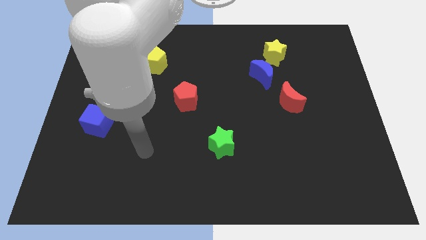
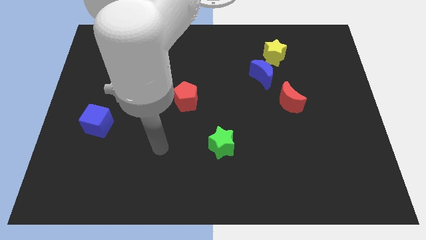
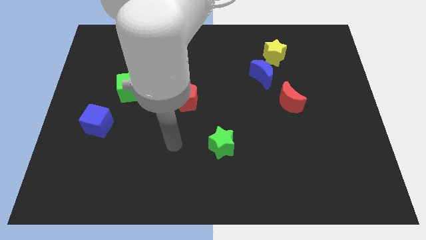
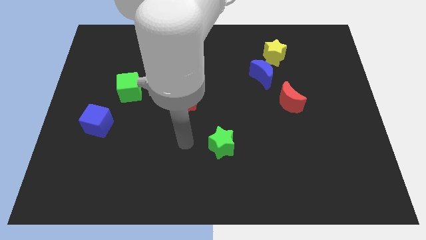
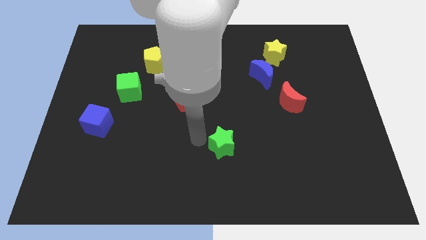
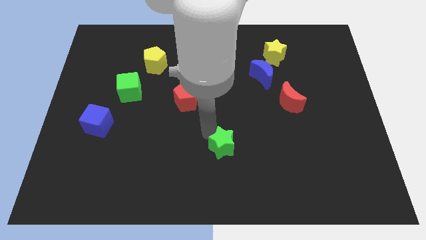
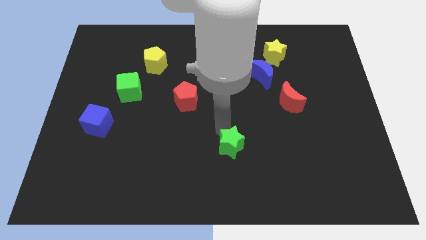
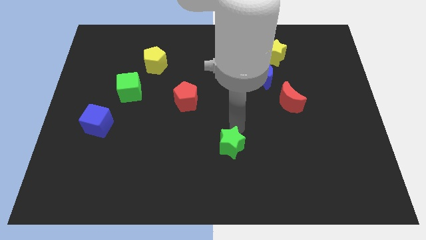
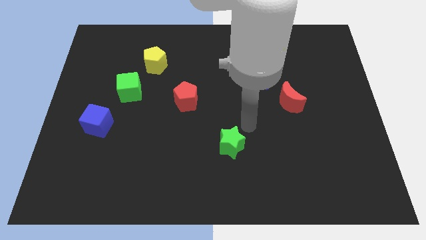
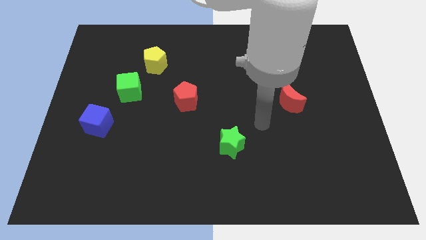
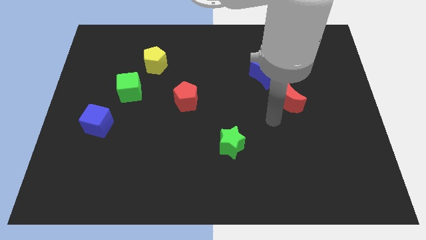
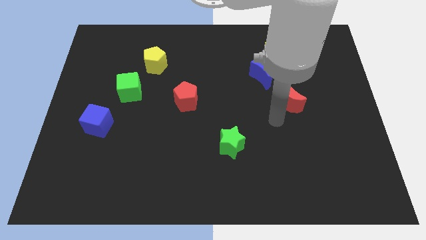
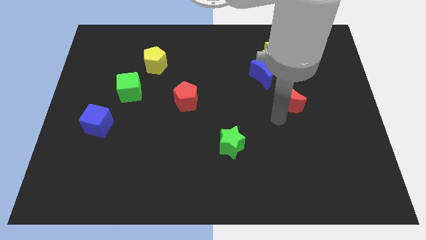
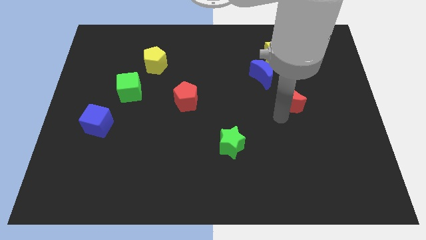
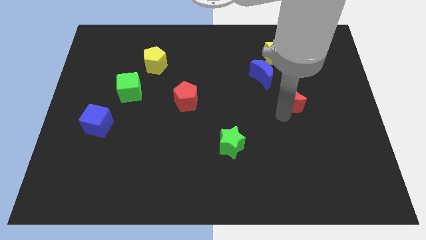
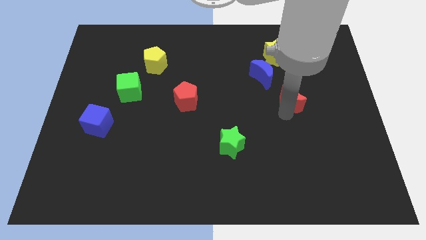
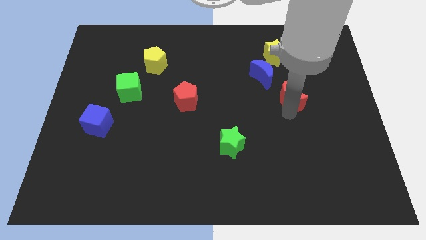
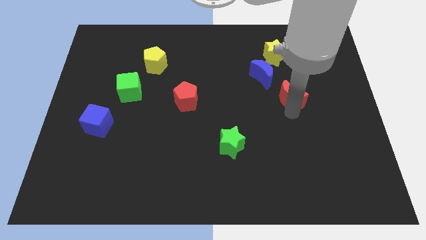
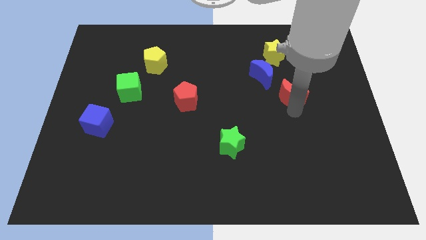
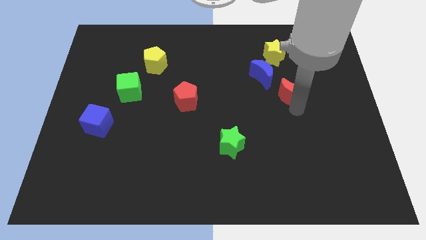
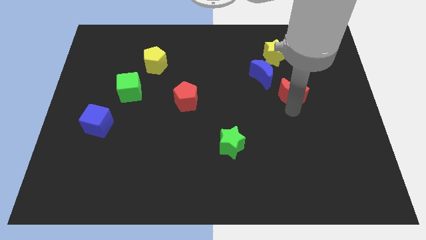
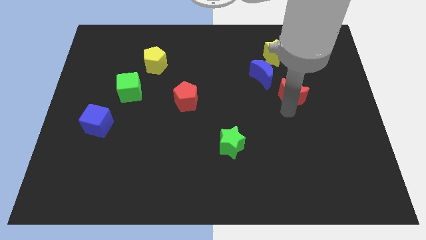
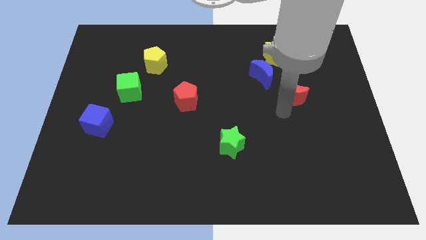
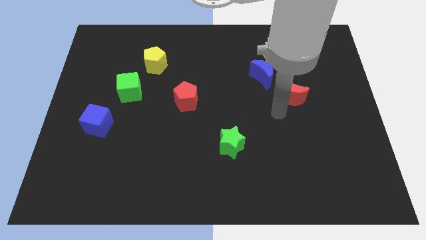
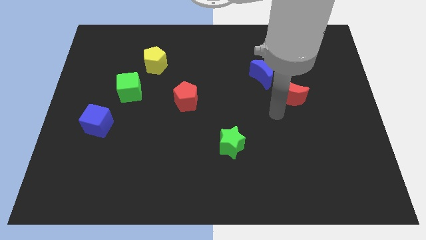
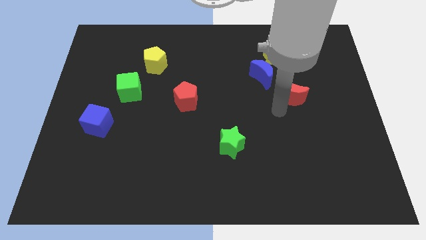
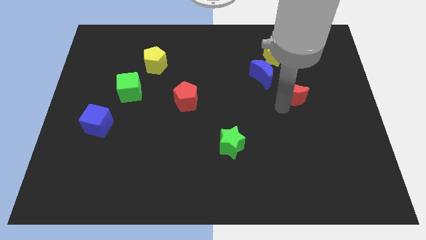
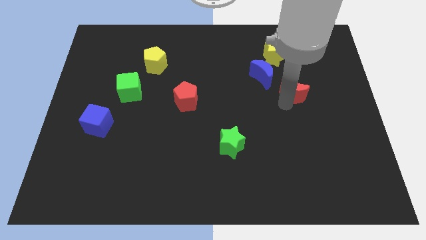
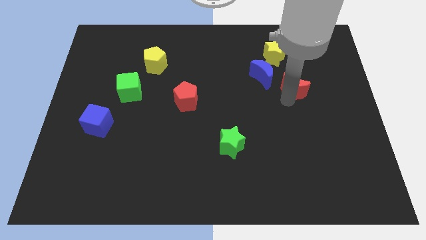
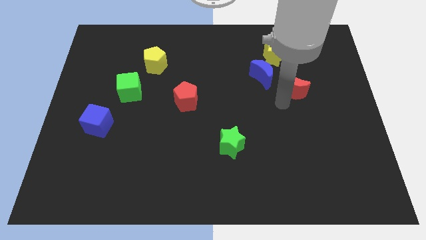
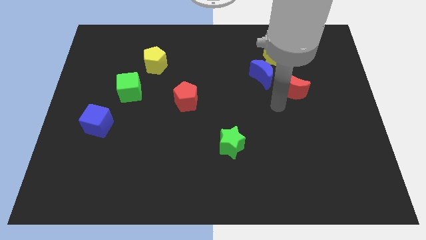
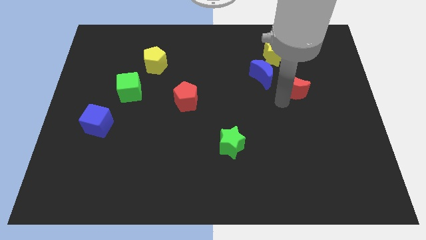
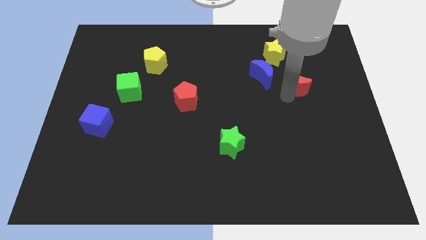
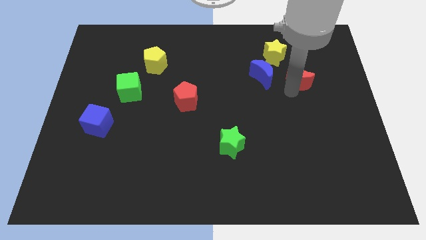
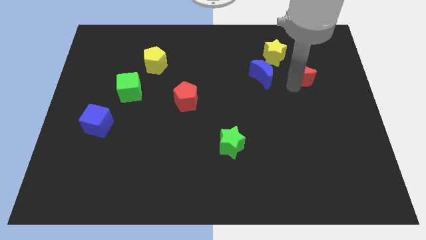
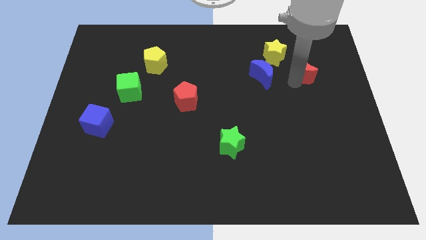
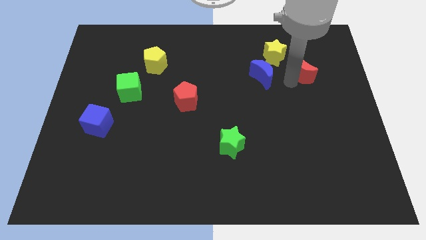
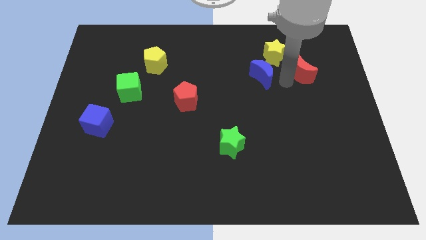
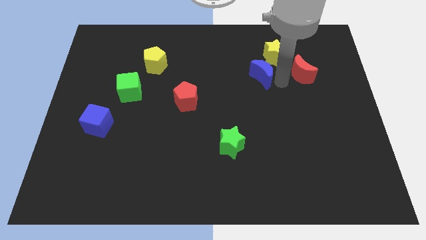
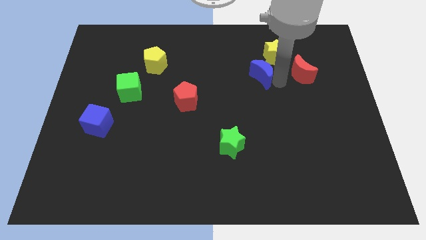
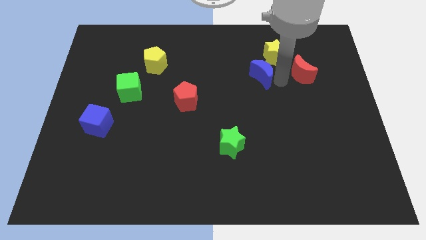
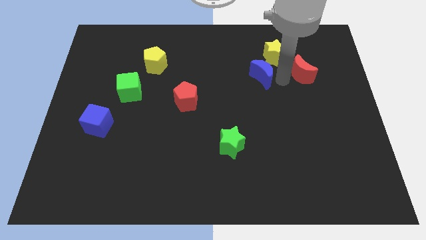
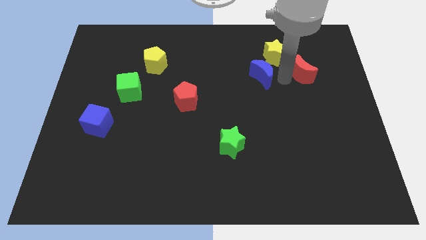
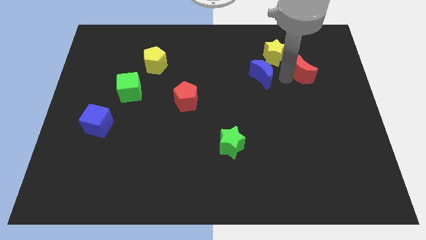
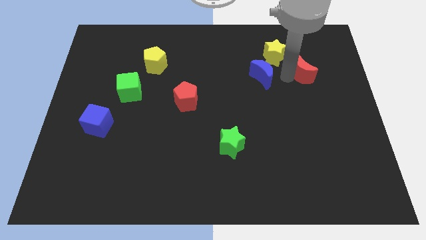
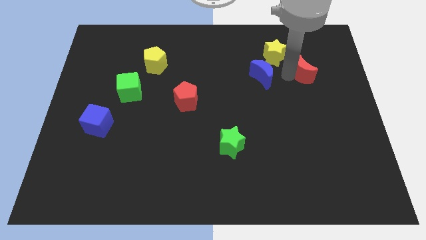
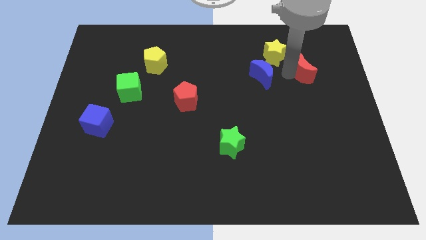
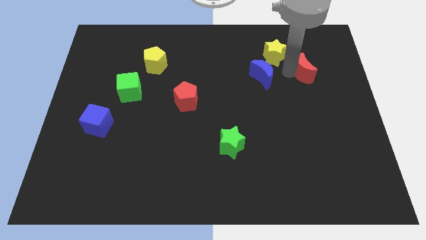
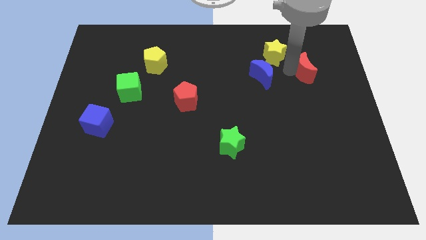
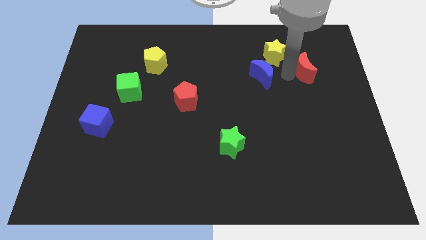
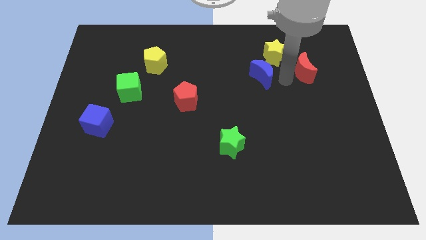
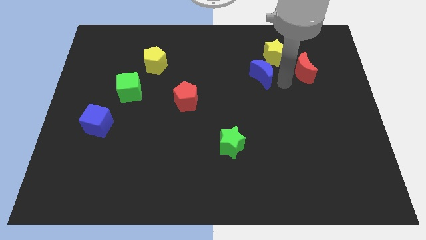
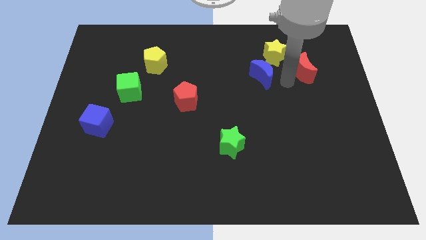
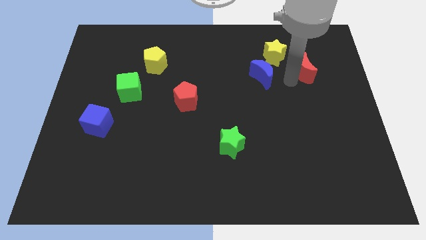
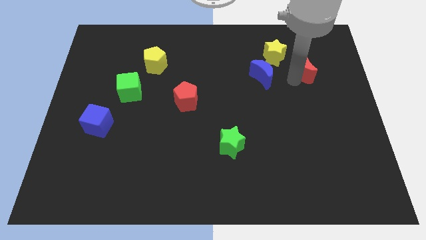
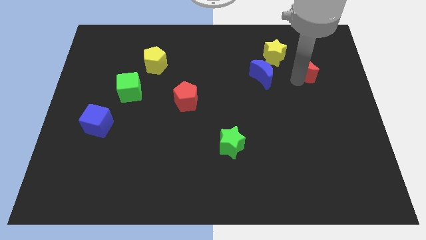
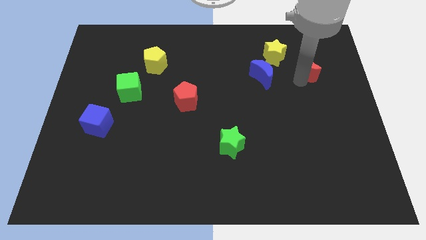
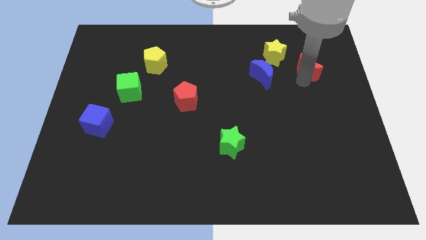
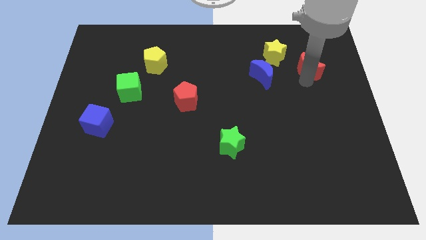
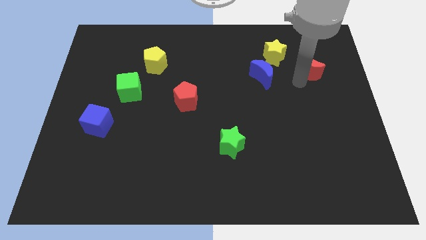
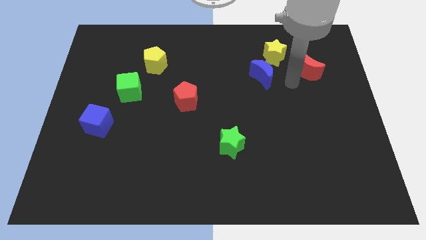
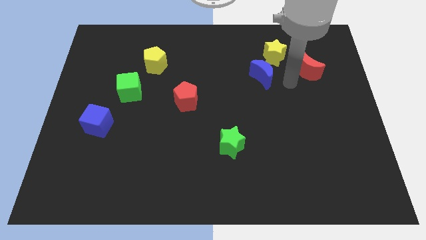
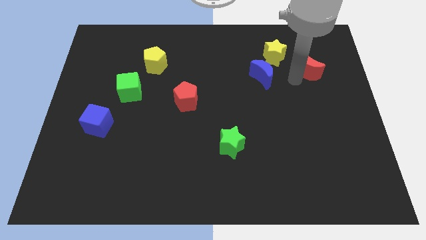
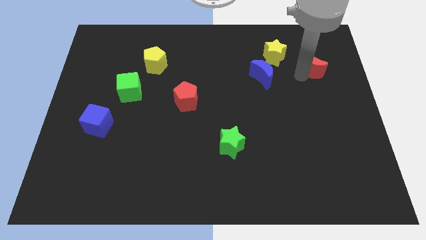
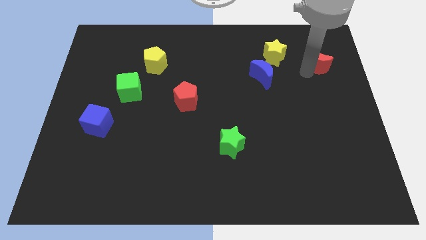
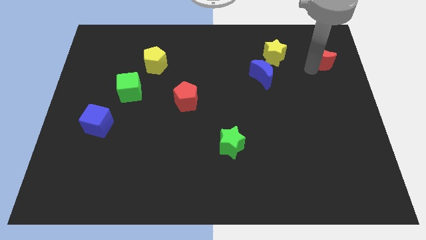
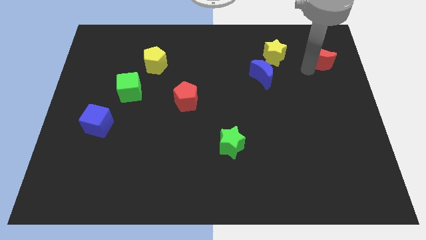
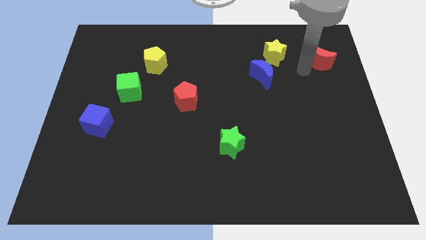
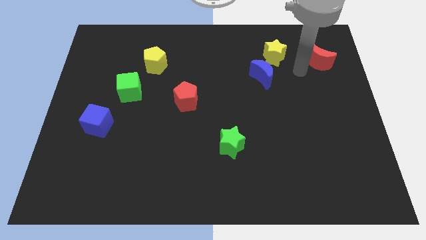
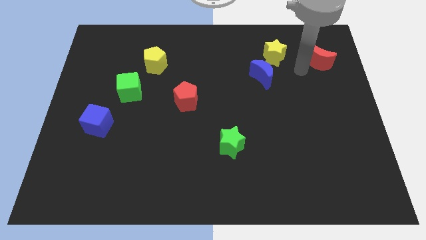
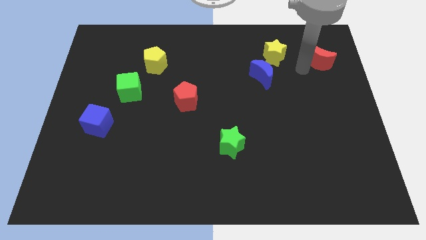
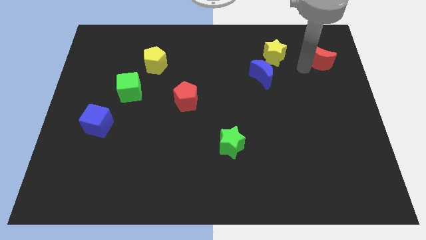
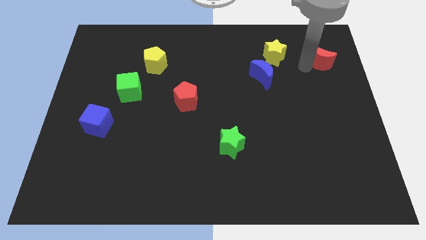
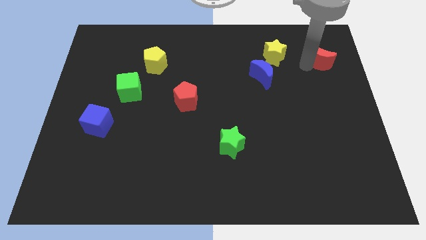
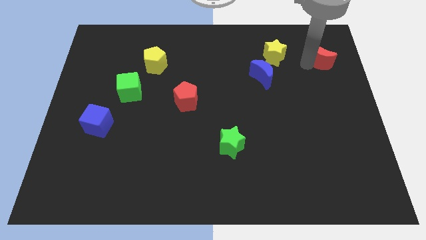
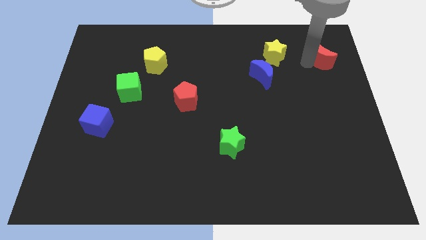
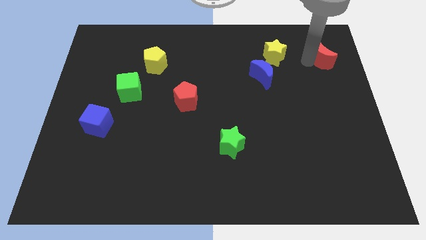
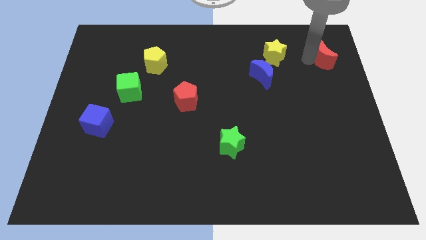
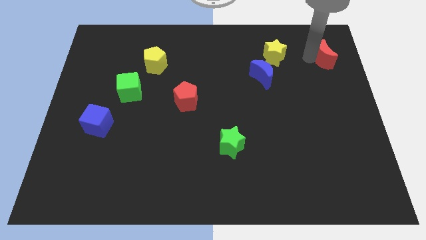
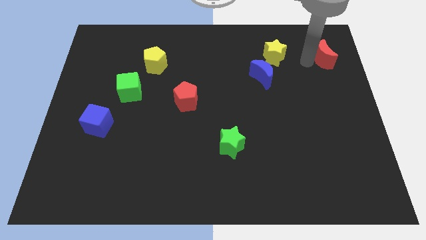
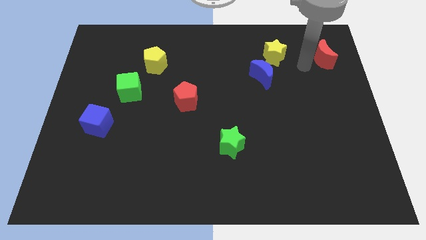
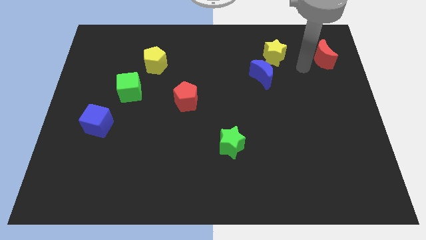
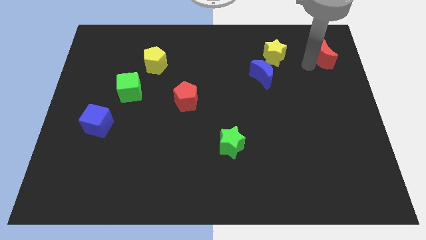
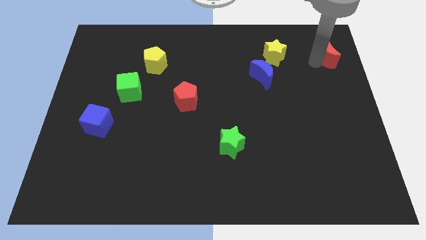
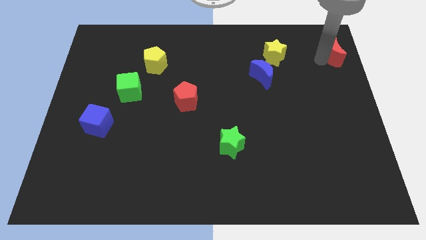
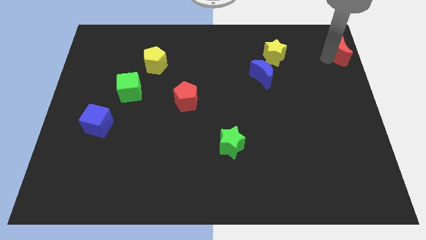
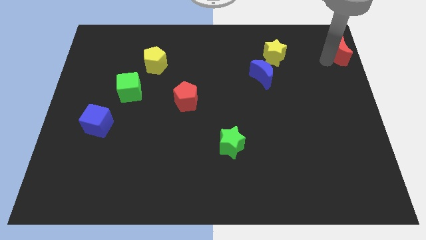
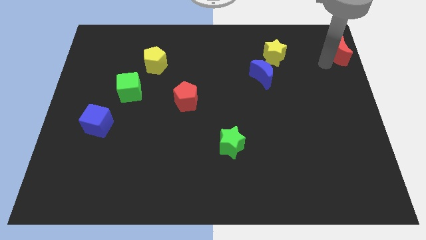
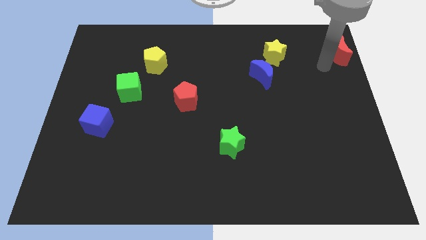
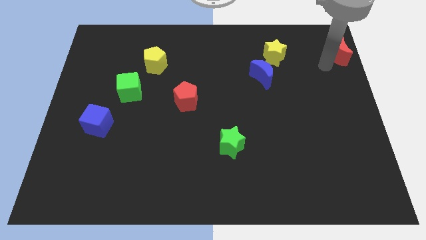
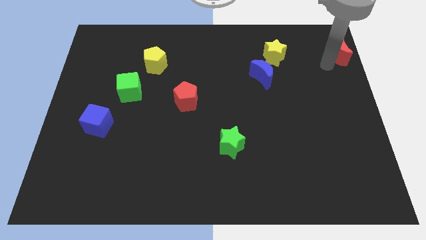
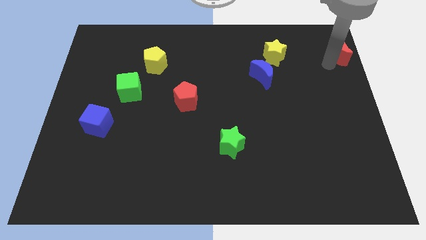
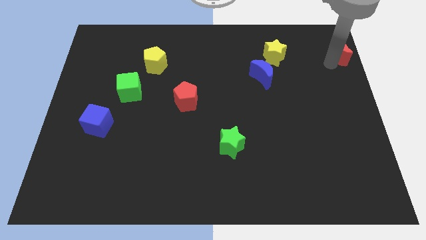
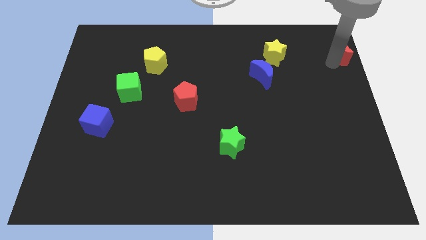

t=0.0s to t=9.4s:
push the red moon to the upper right corner
